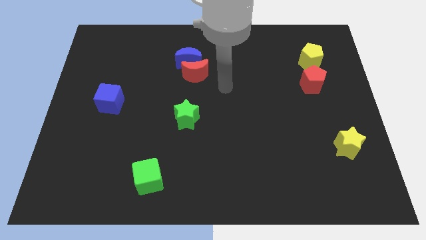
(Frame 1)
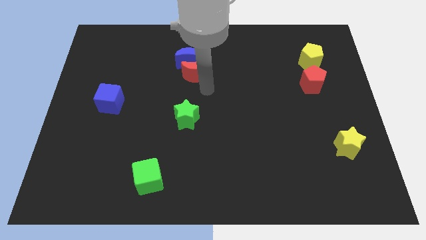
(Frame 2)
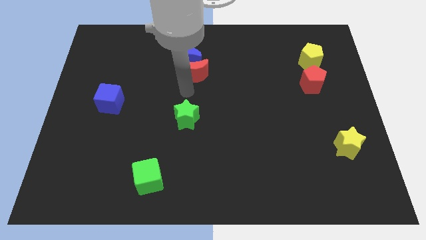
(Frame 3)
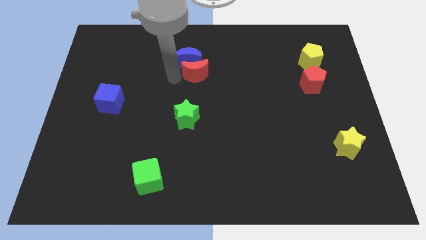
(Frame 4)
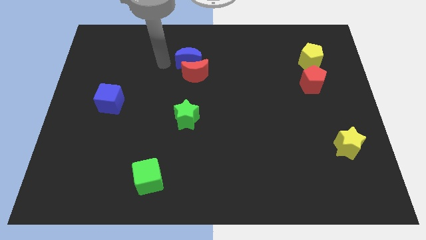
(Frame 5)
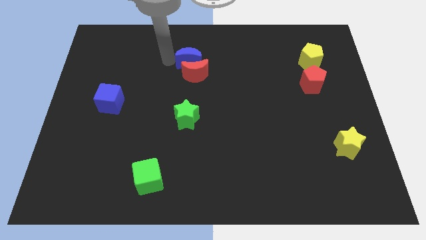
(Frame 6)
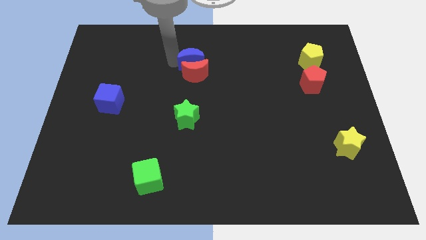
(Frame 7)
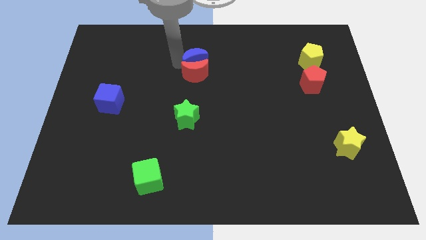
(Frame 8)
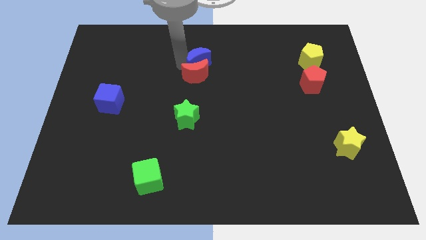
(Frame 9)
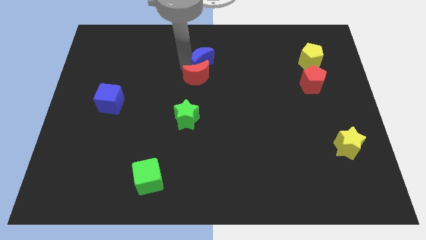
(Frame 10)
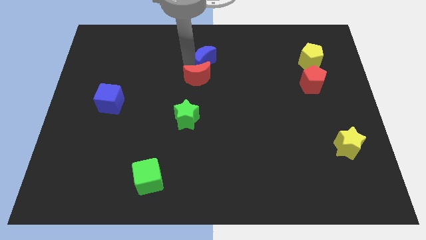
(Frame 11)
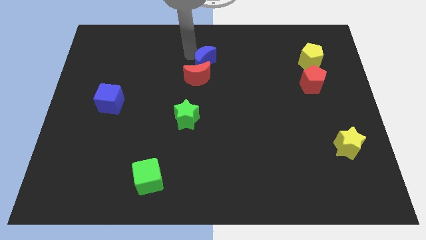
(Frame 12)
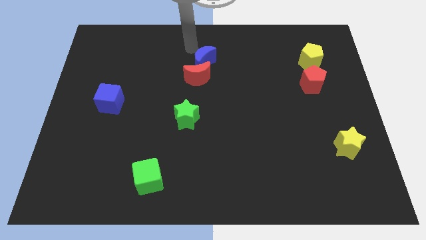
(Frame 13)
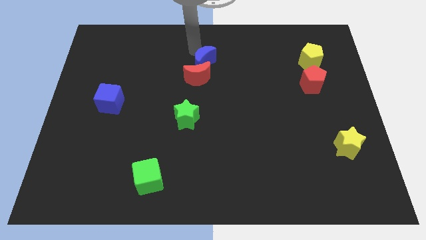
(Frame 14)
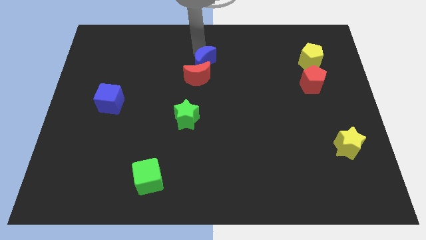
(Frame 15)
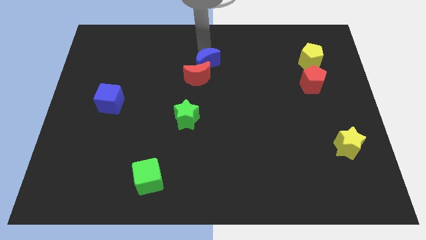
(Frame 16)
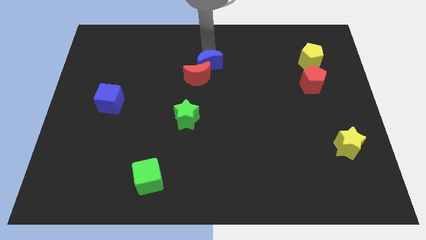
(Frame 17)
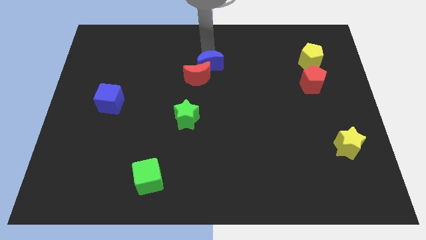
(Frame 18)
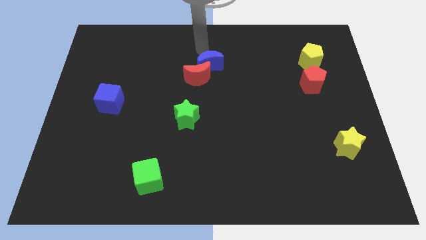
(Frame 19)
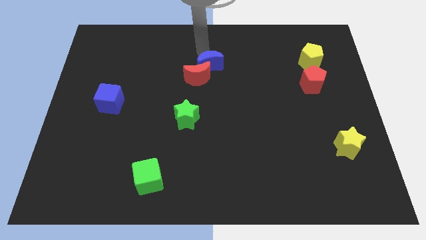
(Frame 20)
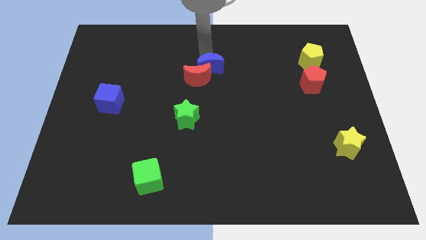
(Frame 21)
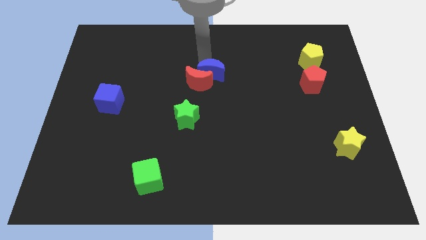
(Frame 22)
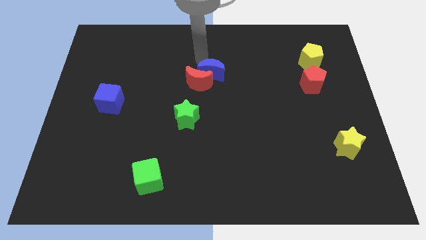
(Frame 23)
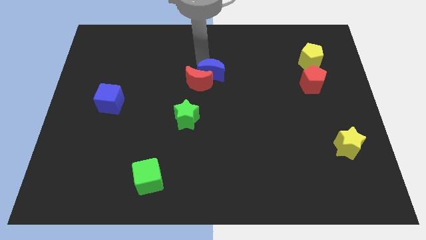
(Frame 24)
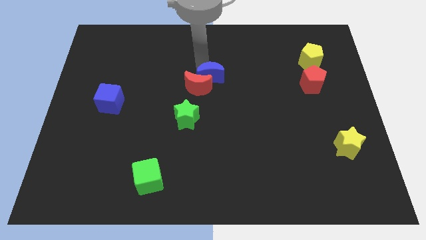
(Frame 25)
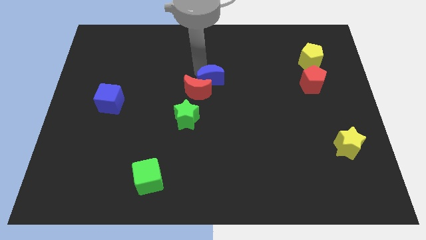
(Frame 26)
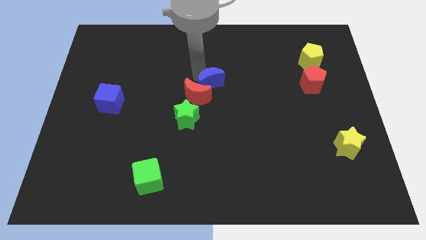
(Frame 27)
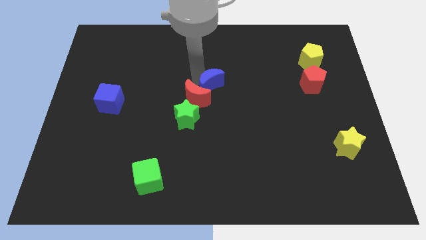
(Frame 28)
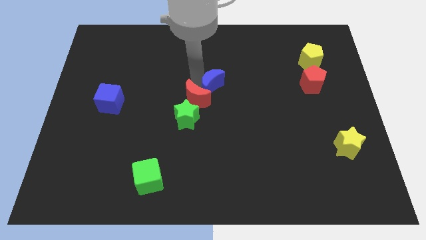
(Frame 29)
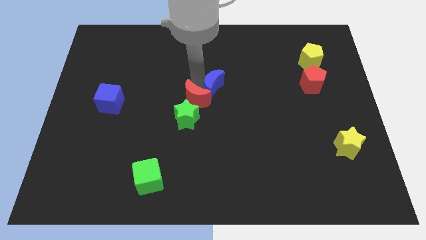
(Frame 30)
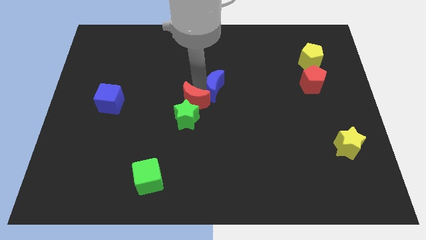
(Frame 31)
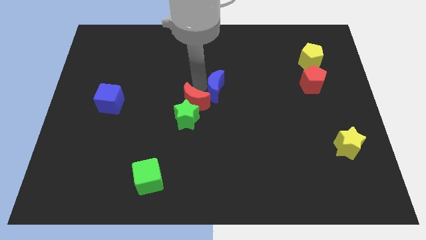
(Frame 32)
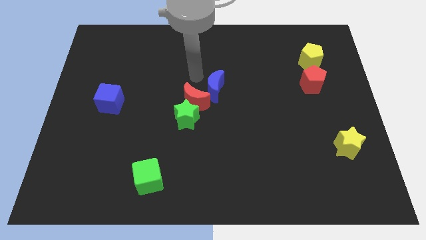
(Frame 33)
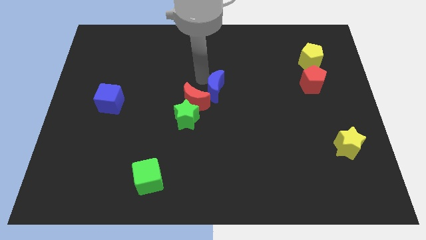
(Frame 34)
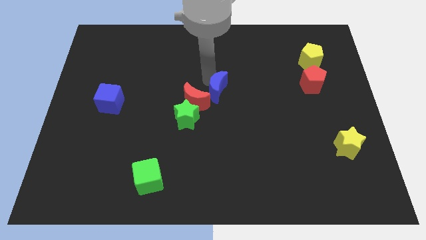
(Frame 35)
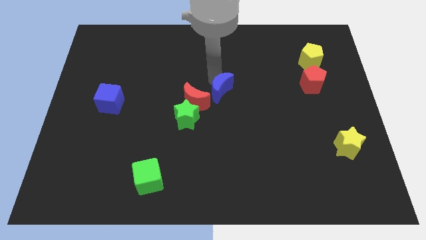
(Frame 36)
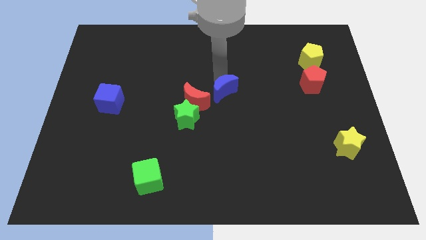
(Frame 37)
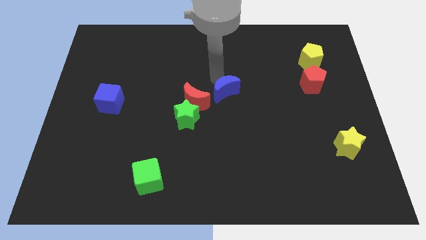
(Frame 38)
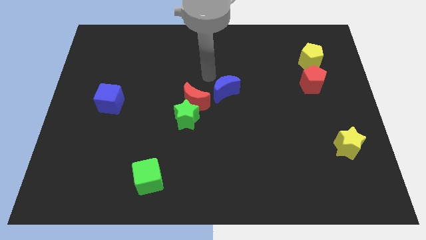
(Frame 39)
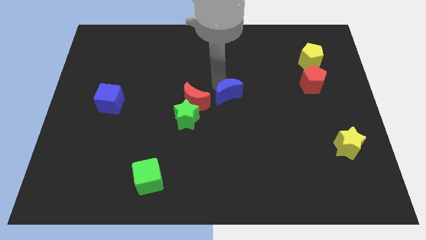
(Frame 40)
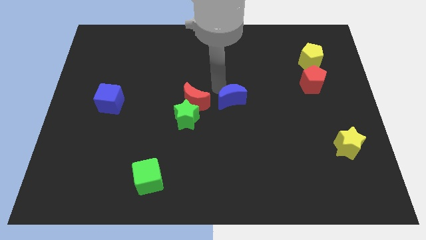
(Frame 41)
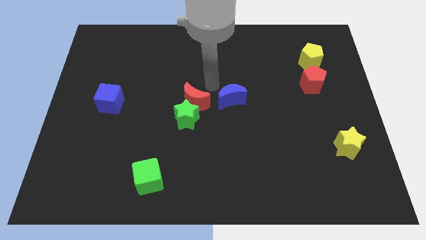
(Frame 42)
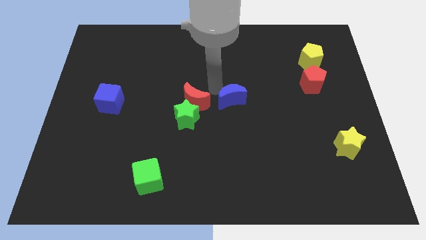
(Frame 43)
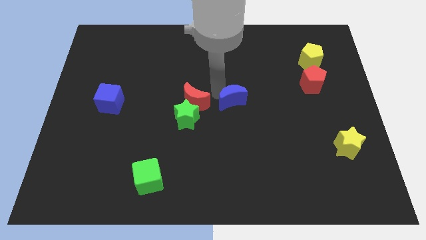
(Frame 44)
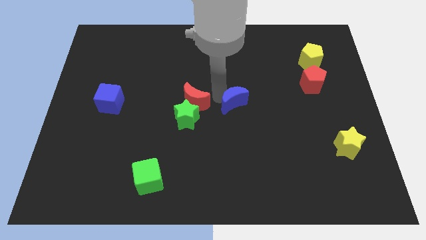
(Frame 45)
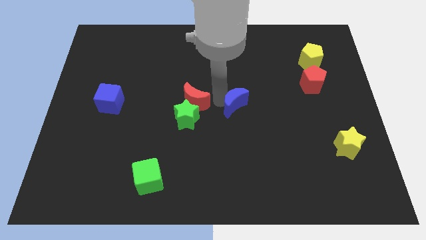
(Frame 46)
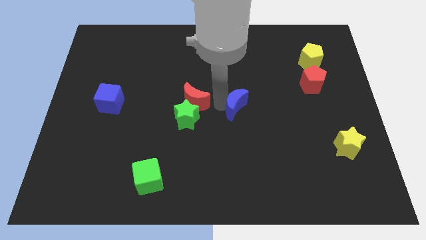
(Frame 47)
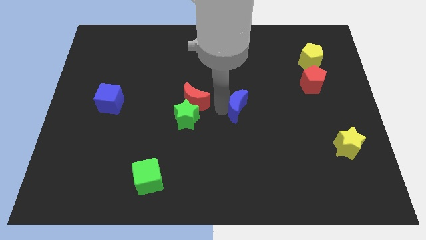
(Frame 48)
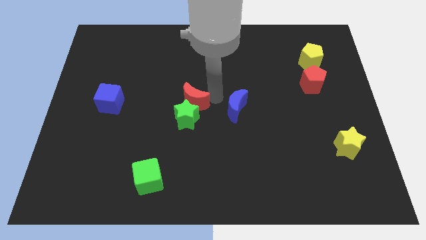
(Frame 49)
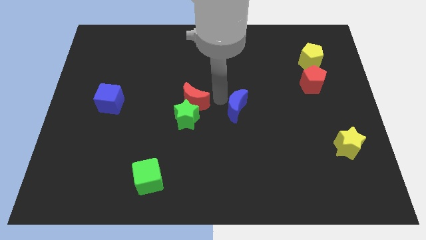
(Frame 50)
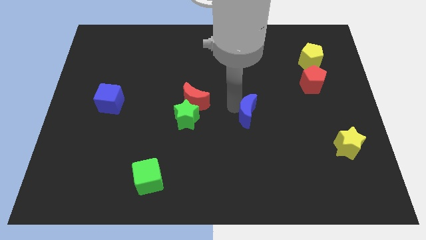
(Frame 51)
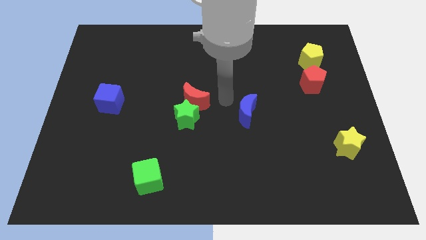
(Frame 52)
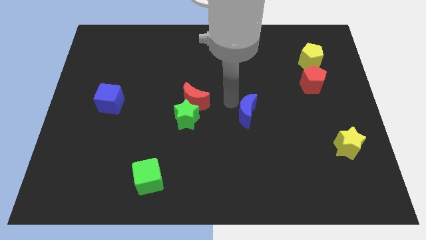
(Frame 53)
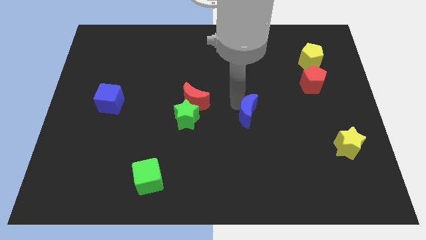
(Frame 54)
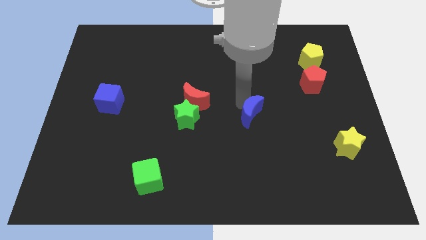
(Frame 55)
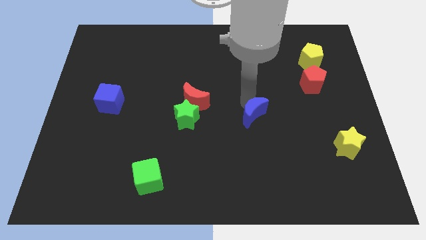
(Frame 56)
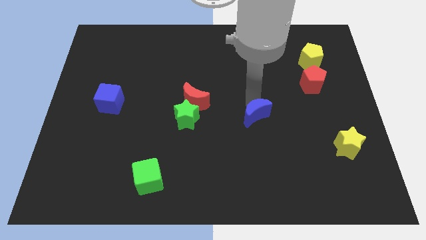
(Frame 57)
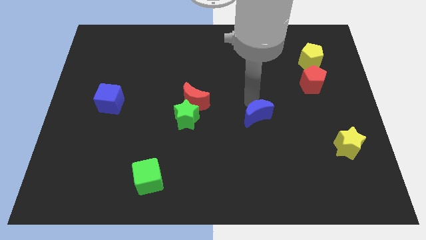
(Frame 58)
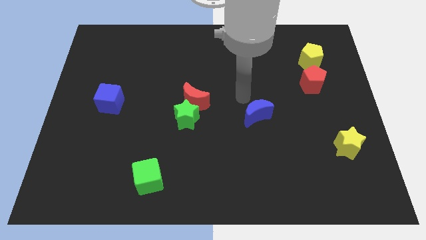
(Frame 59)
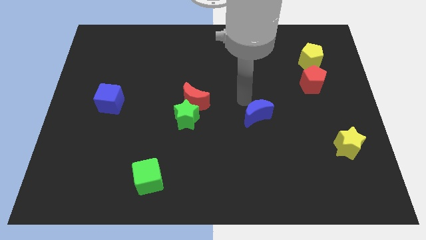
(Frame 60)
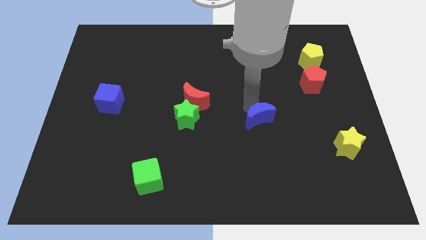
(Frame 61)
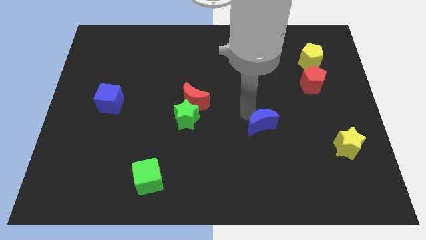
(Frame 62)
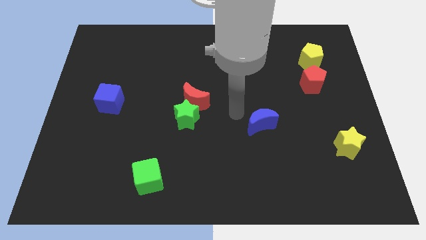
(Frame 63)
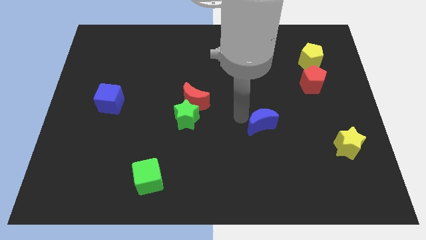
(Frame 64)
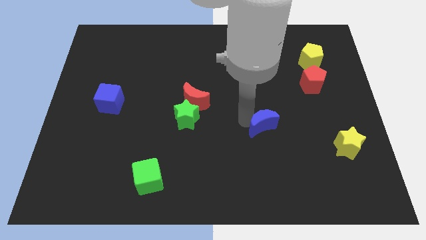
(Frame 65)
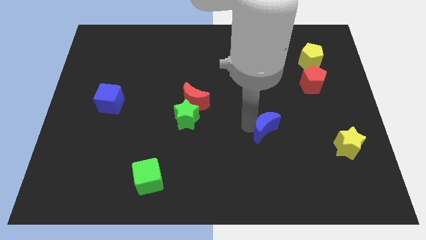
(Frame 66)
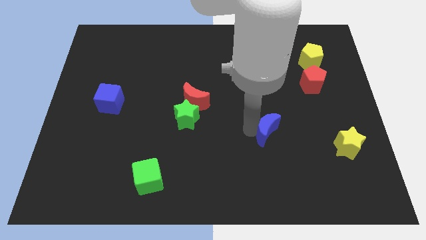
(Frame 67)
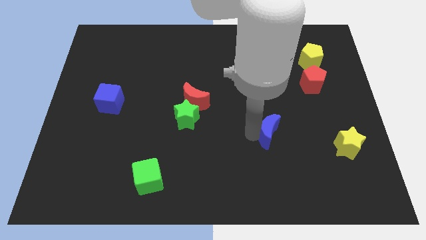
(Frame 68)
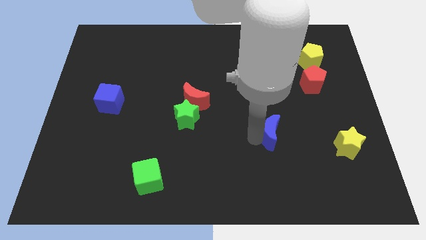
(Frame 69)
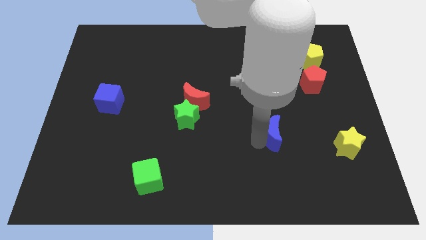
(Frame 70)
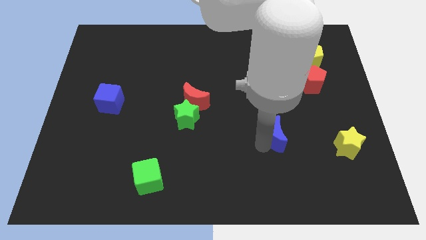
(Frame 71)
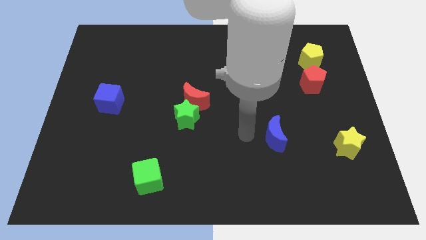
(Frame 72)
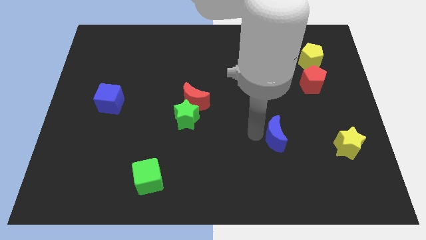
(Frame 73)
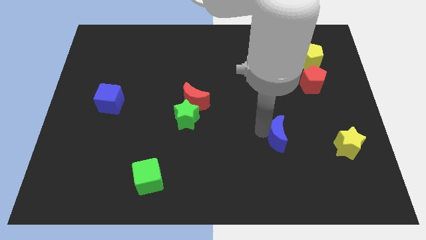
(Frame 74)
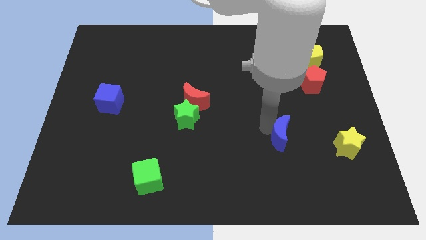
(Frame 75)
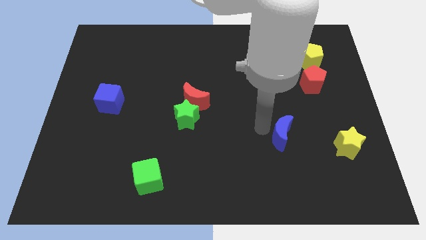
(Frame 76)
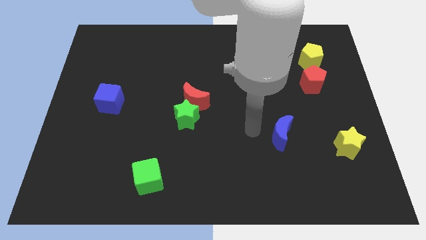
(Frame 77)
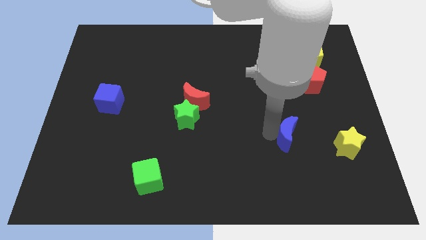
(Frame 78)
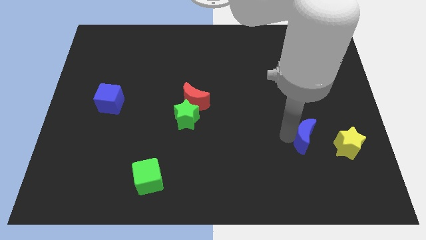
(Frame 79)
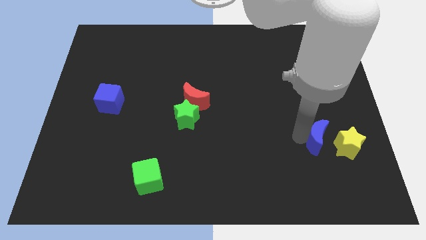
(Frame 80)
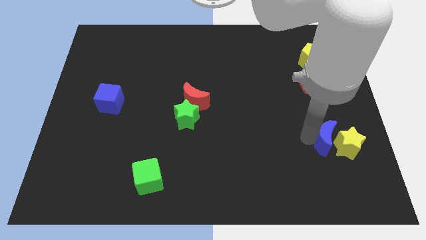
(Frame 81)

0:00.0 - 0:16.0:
push the blue moon next to the yellow star
